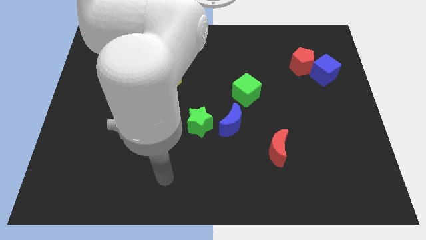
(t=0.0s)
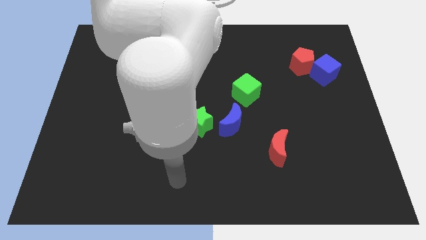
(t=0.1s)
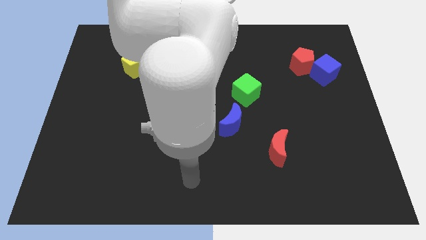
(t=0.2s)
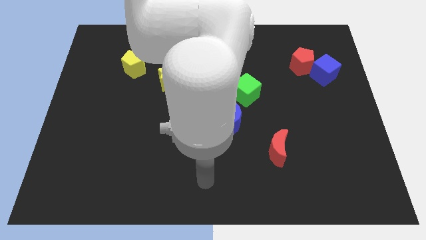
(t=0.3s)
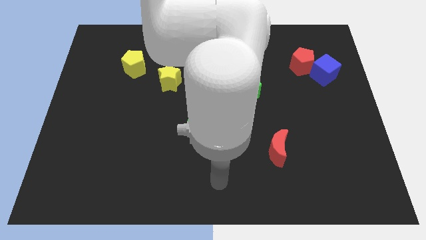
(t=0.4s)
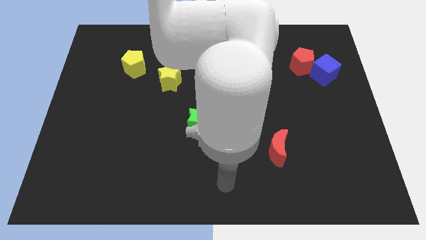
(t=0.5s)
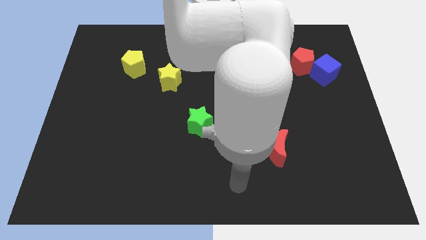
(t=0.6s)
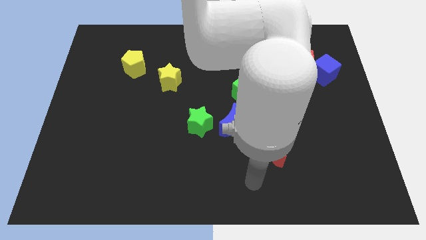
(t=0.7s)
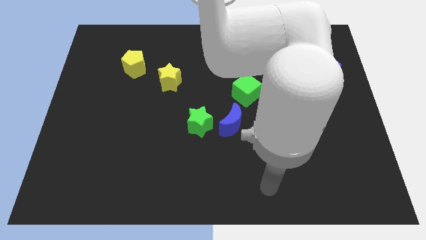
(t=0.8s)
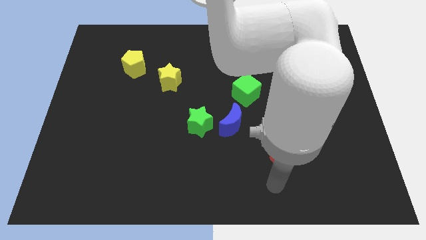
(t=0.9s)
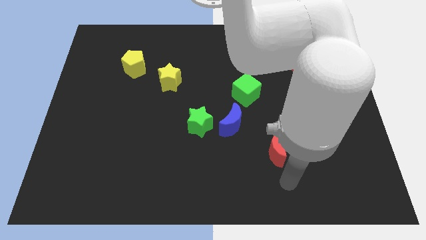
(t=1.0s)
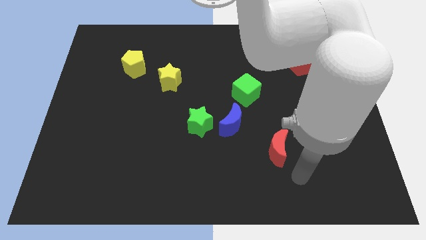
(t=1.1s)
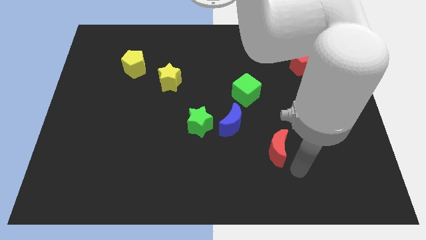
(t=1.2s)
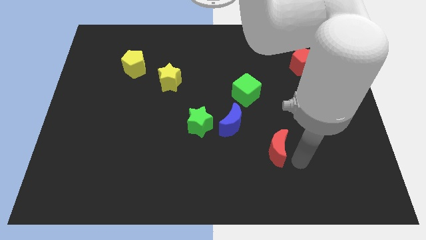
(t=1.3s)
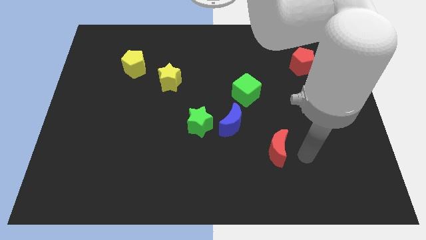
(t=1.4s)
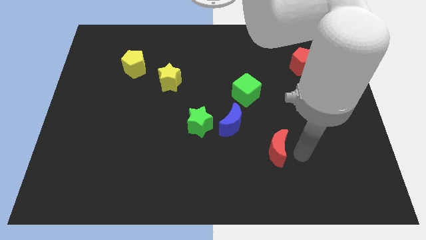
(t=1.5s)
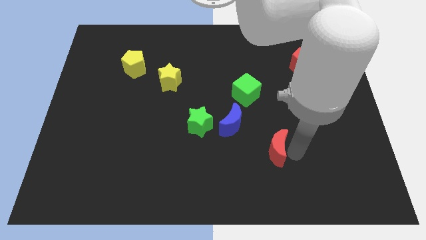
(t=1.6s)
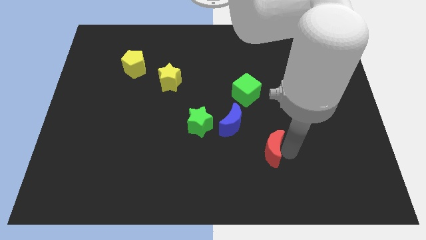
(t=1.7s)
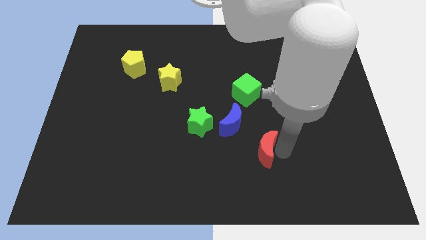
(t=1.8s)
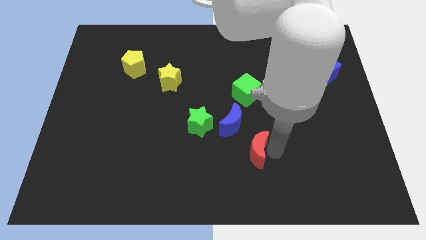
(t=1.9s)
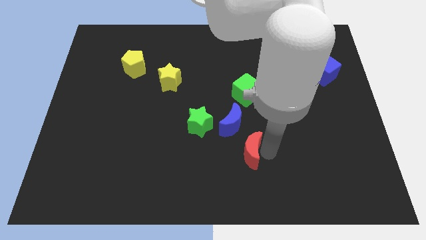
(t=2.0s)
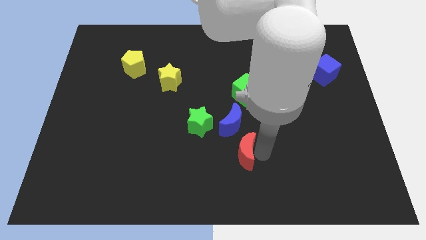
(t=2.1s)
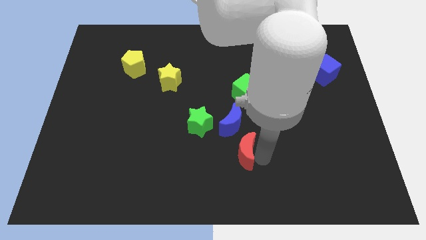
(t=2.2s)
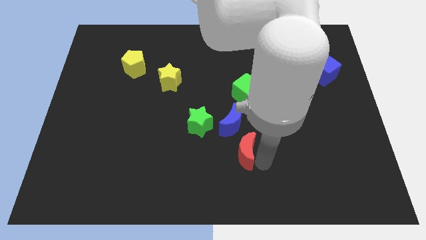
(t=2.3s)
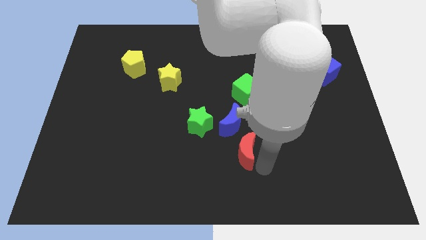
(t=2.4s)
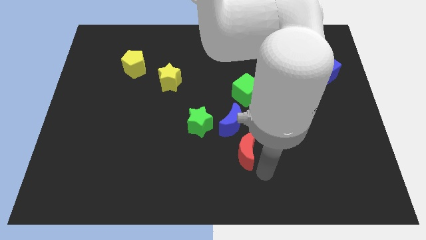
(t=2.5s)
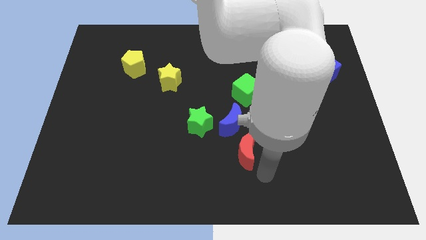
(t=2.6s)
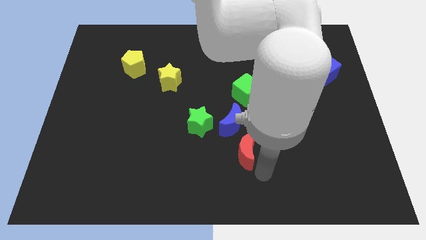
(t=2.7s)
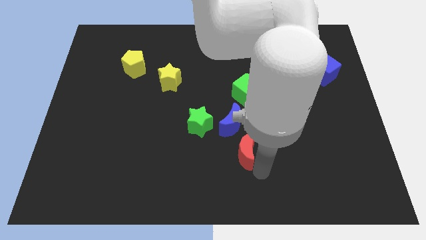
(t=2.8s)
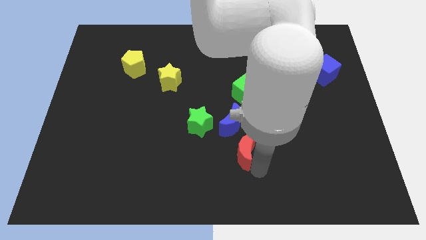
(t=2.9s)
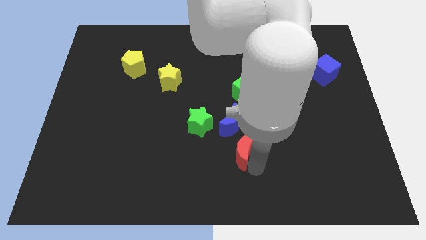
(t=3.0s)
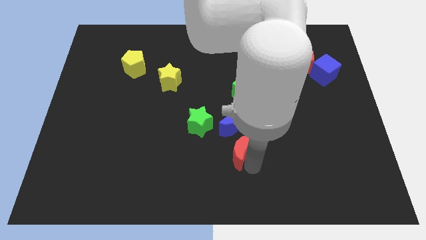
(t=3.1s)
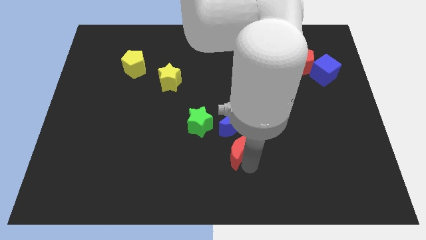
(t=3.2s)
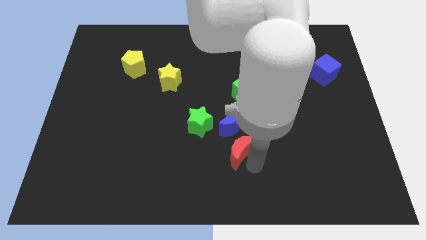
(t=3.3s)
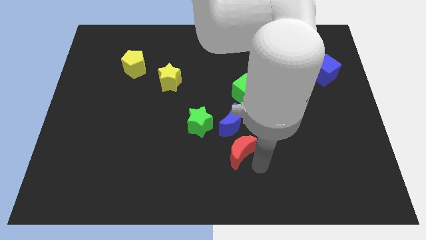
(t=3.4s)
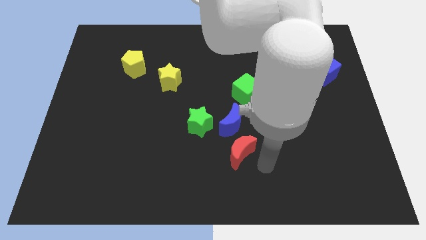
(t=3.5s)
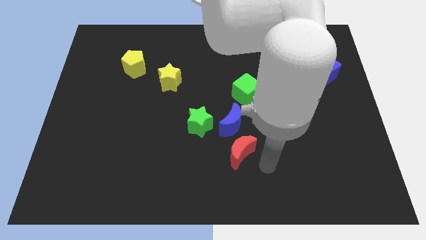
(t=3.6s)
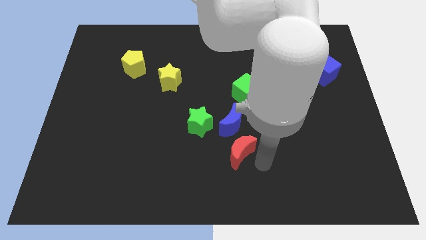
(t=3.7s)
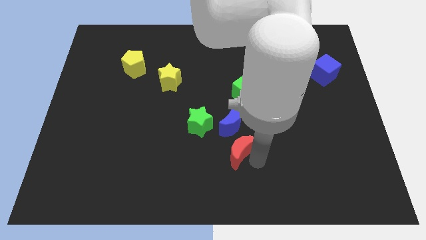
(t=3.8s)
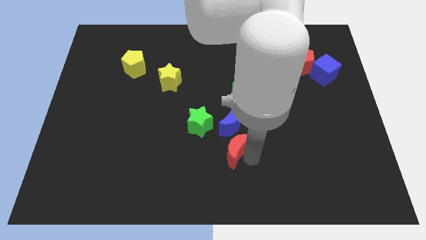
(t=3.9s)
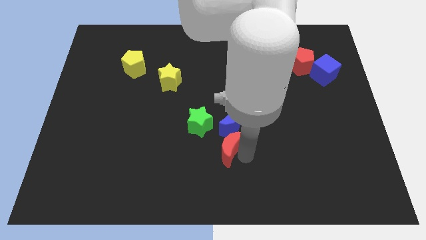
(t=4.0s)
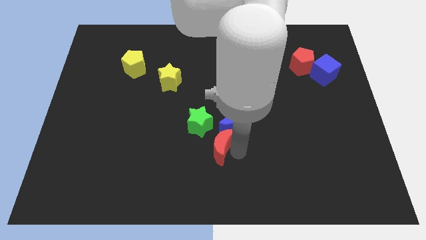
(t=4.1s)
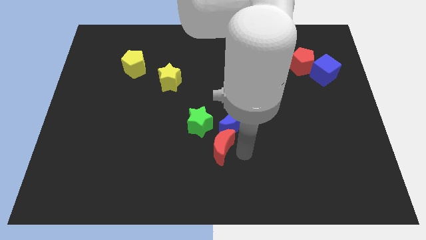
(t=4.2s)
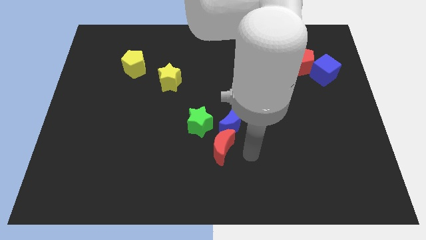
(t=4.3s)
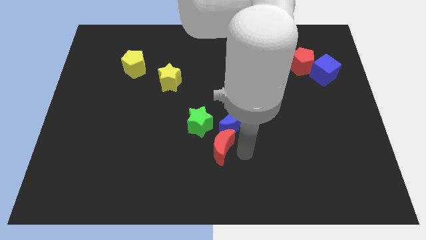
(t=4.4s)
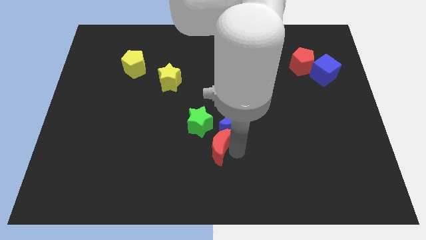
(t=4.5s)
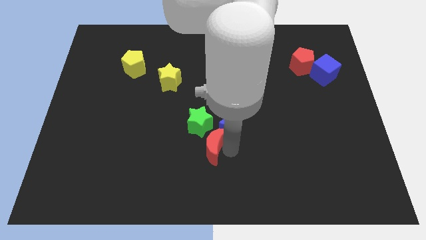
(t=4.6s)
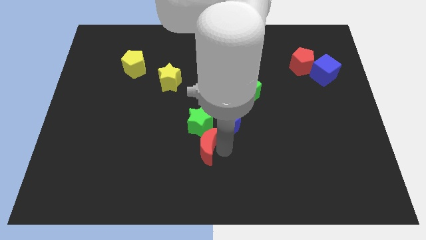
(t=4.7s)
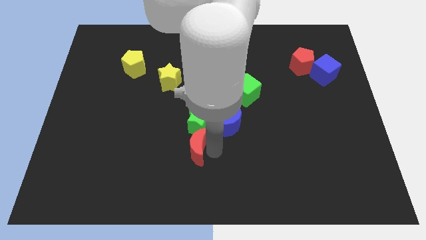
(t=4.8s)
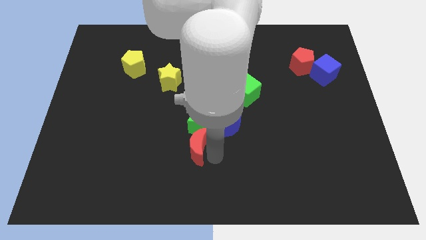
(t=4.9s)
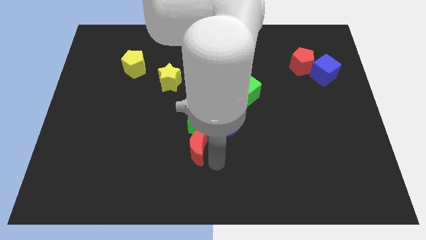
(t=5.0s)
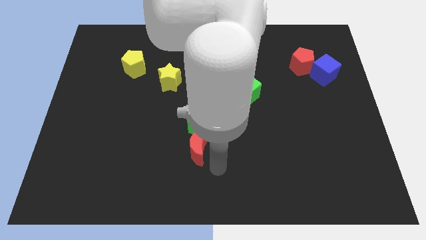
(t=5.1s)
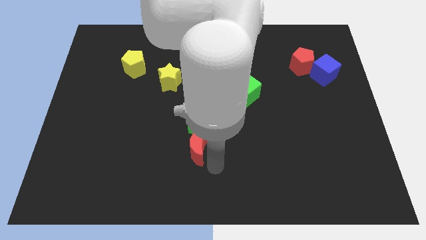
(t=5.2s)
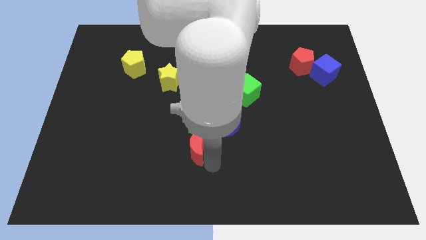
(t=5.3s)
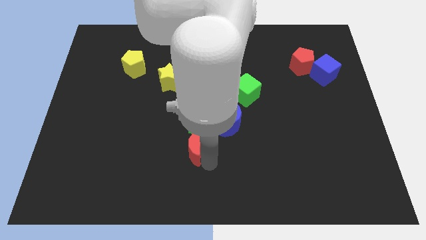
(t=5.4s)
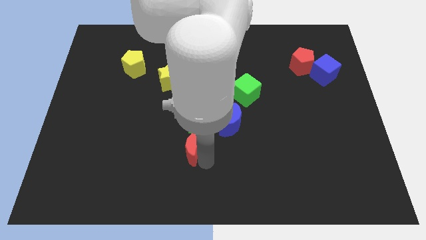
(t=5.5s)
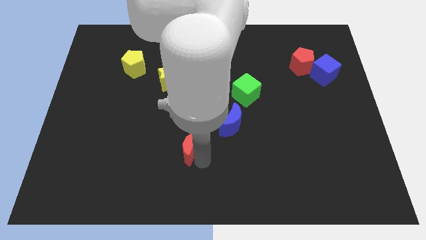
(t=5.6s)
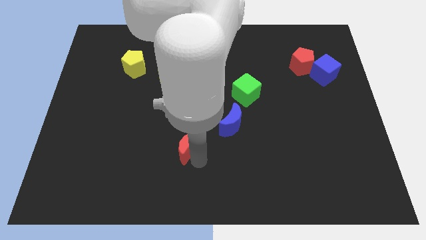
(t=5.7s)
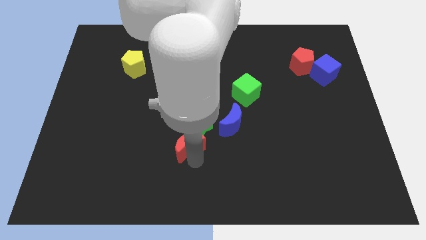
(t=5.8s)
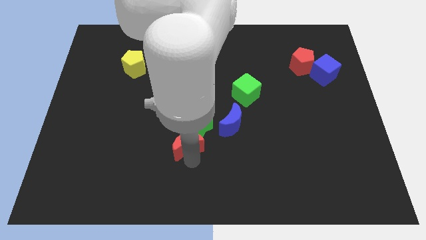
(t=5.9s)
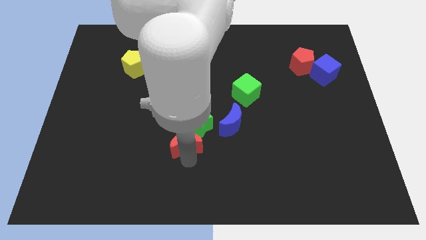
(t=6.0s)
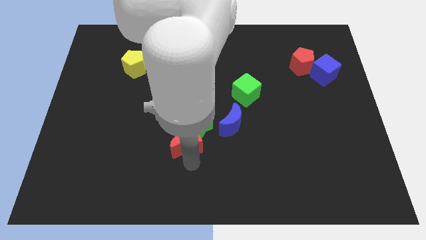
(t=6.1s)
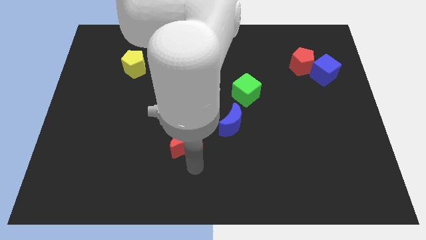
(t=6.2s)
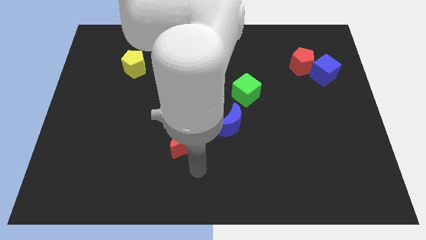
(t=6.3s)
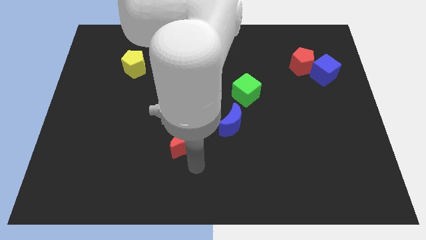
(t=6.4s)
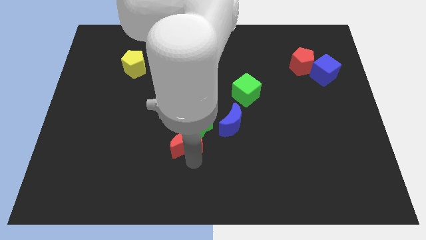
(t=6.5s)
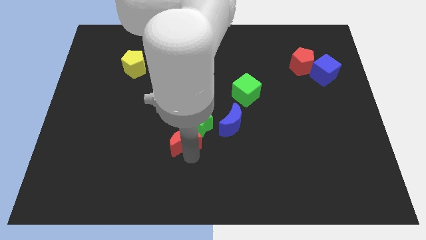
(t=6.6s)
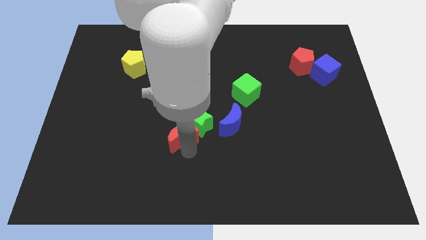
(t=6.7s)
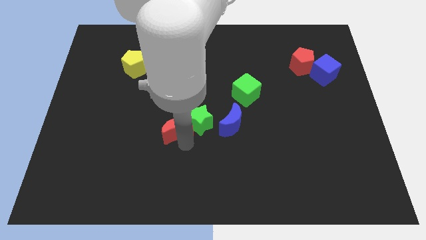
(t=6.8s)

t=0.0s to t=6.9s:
move the red moon below the yellow star

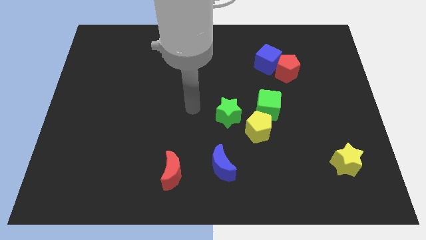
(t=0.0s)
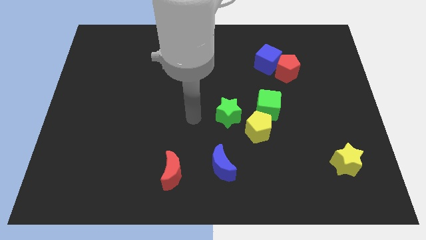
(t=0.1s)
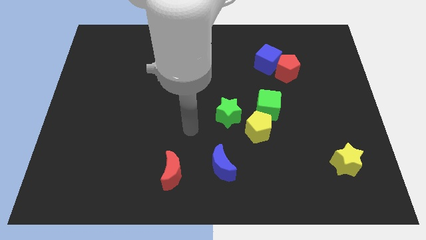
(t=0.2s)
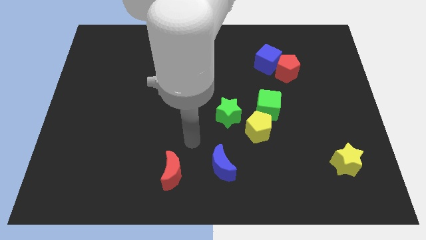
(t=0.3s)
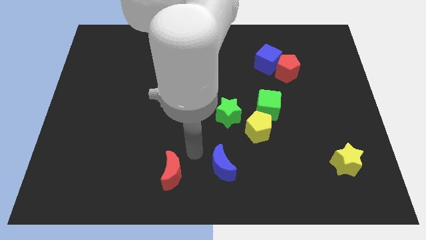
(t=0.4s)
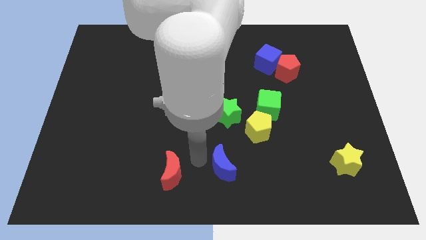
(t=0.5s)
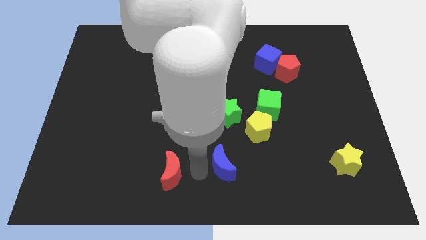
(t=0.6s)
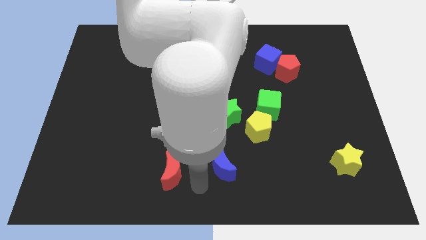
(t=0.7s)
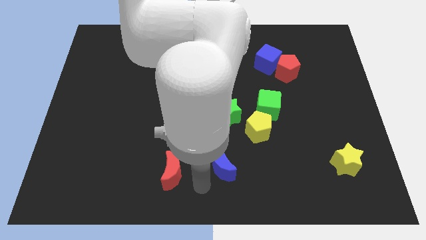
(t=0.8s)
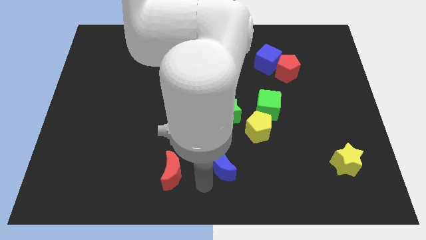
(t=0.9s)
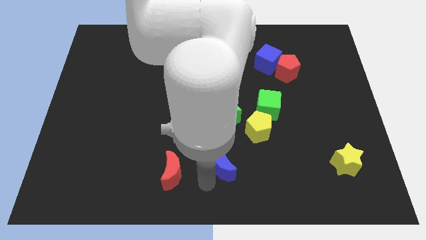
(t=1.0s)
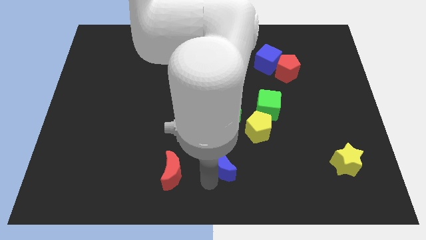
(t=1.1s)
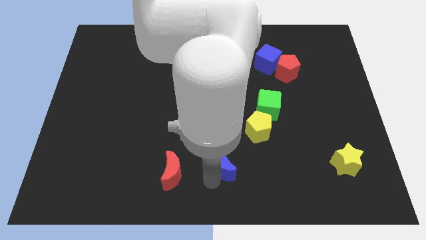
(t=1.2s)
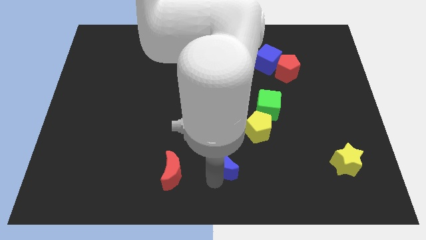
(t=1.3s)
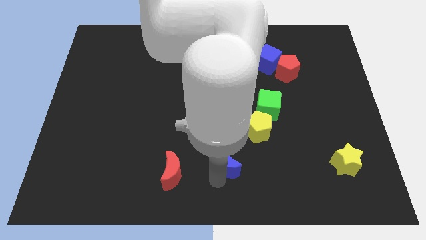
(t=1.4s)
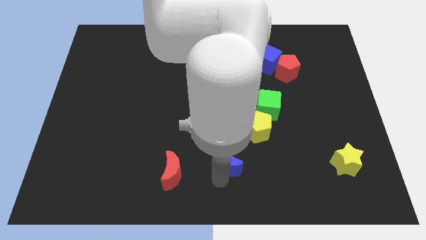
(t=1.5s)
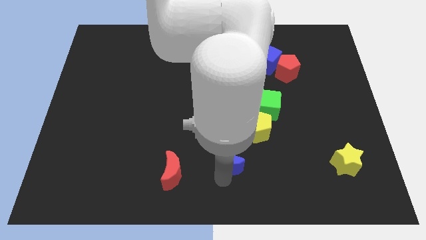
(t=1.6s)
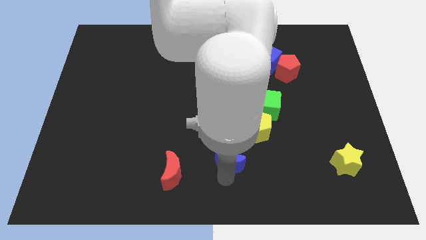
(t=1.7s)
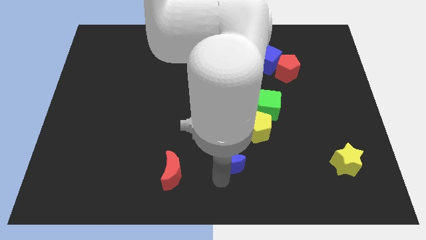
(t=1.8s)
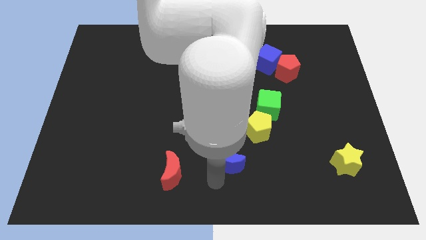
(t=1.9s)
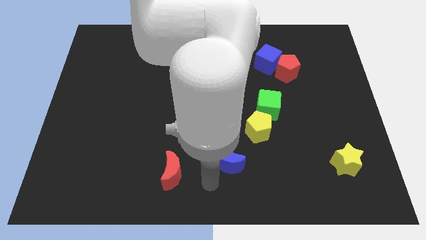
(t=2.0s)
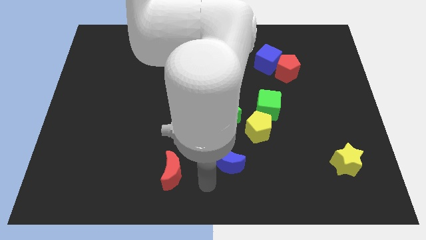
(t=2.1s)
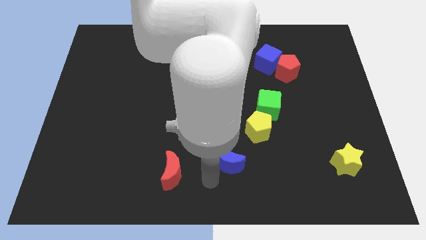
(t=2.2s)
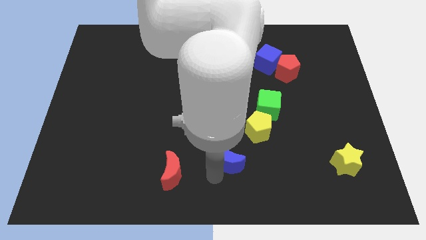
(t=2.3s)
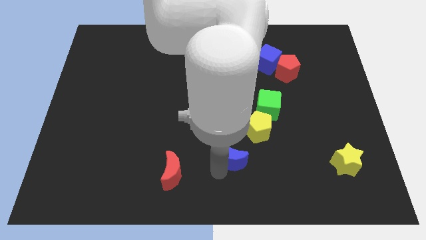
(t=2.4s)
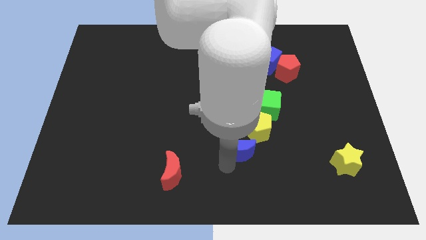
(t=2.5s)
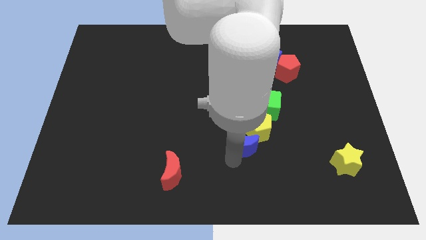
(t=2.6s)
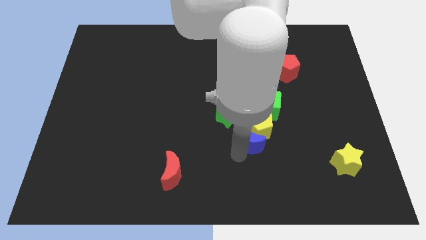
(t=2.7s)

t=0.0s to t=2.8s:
put the blue moon to the bottom left side of the green cube
